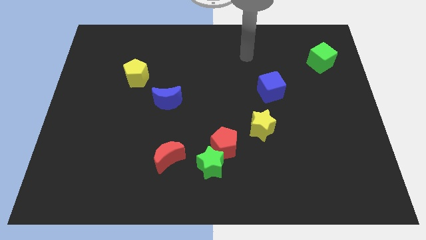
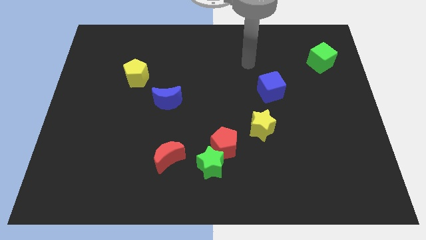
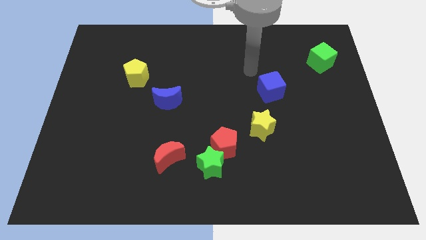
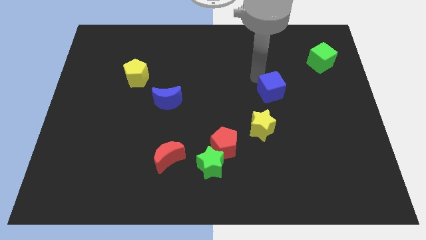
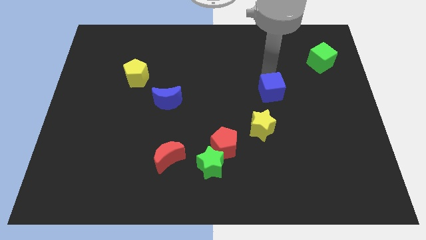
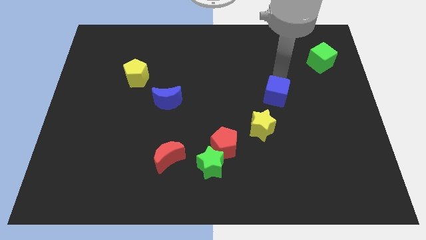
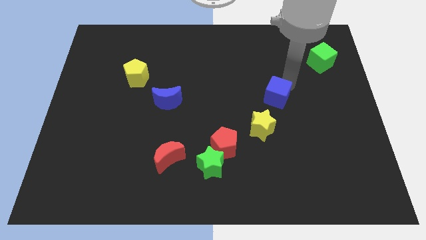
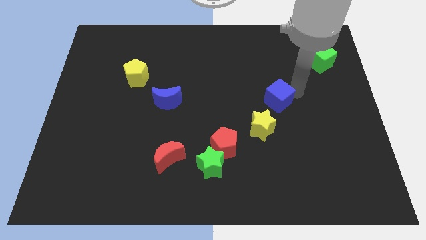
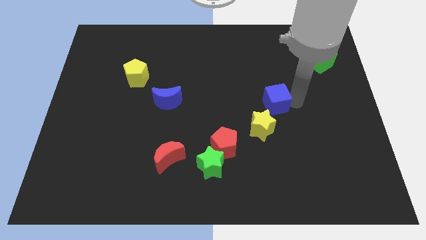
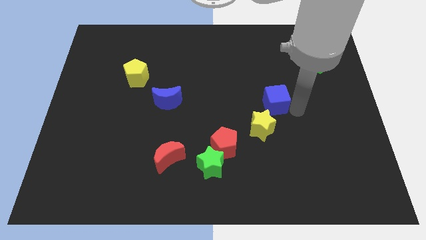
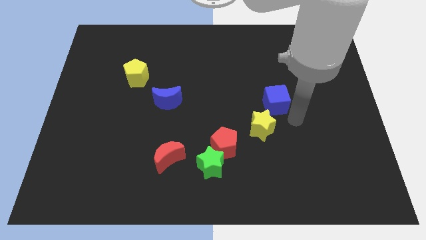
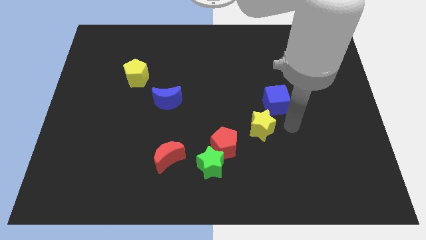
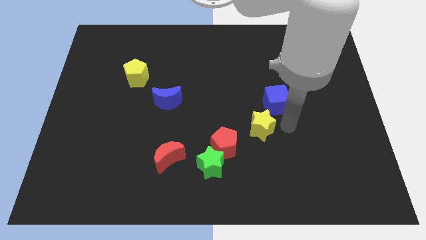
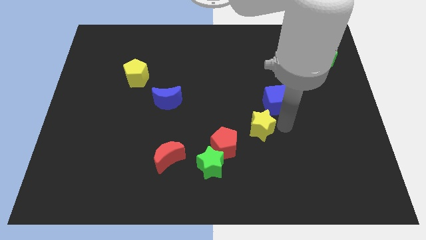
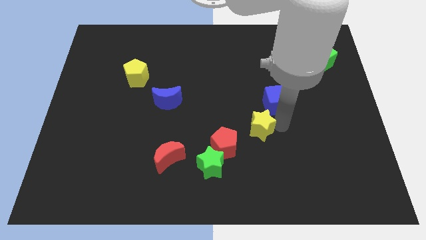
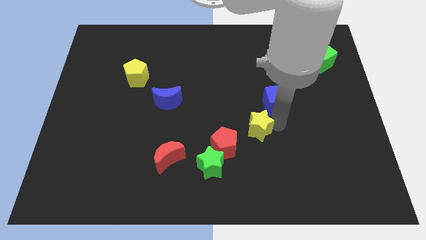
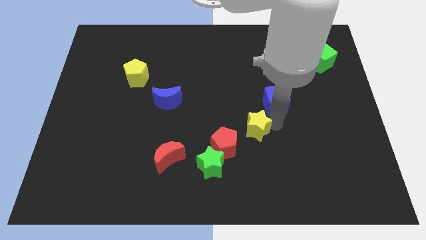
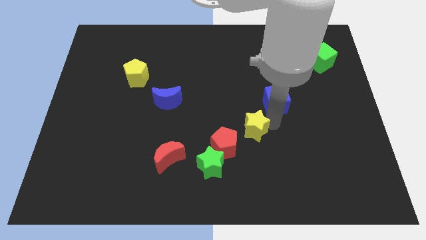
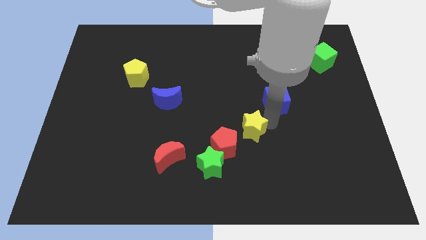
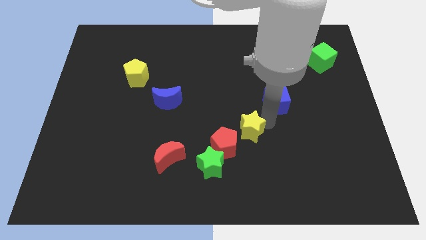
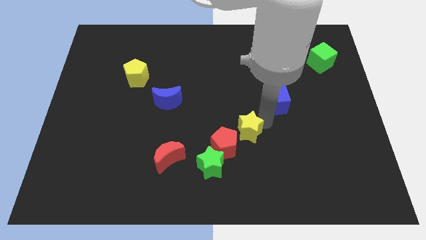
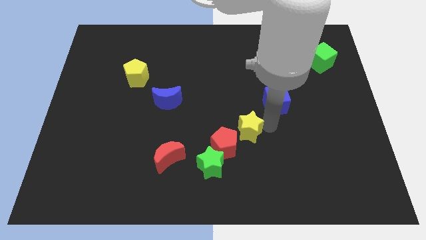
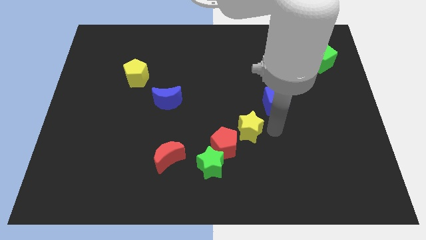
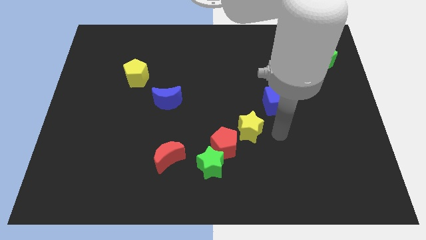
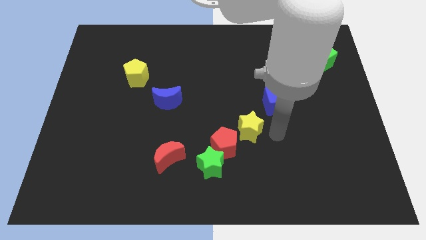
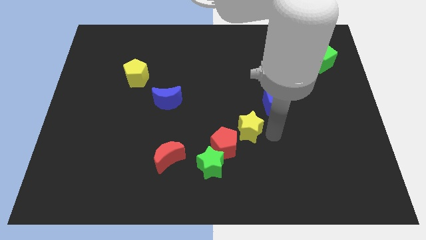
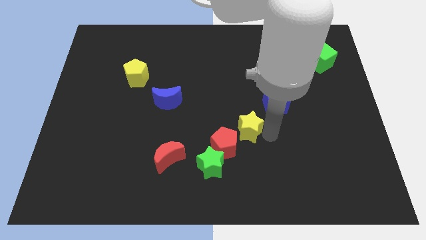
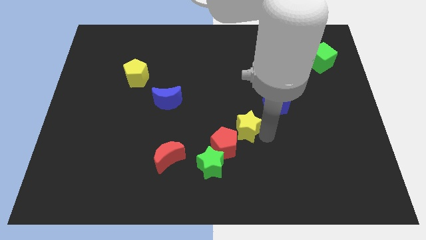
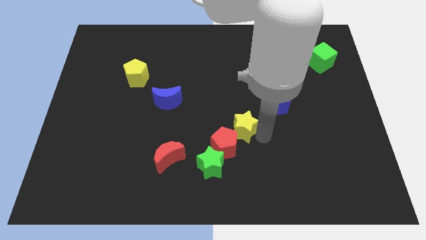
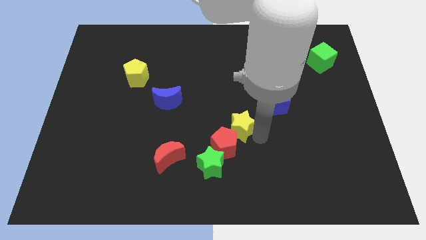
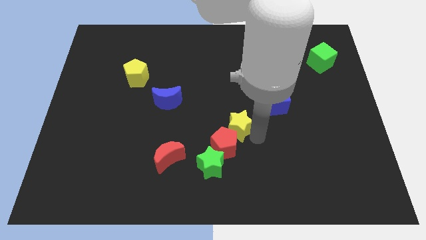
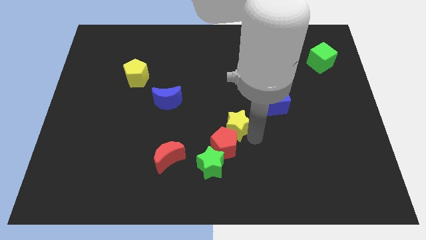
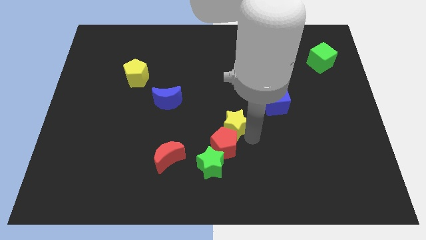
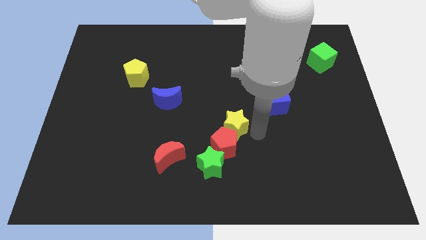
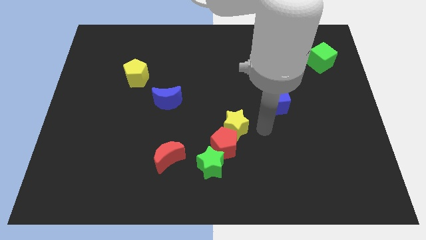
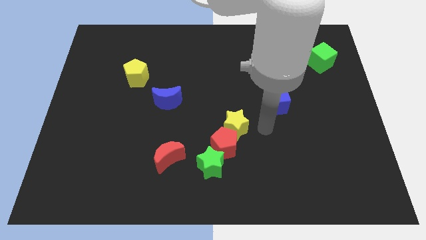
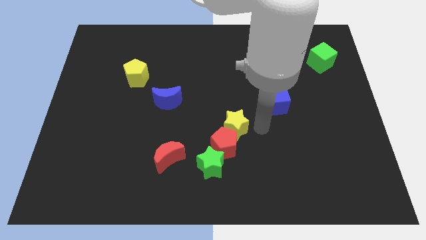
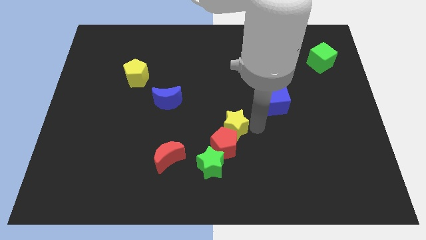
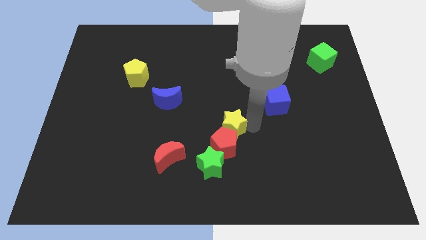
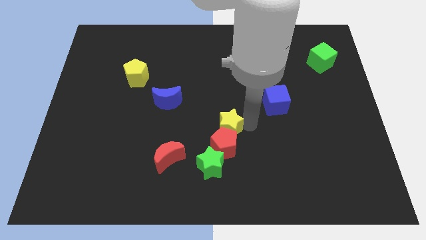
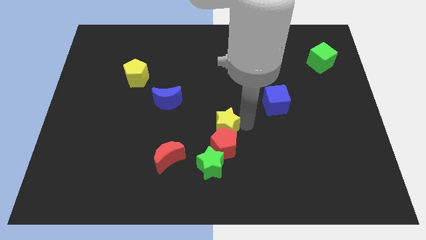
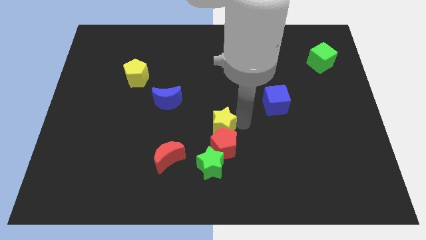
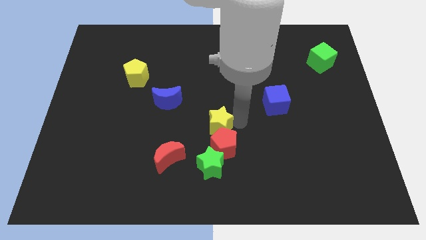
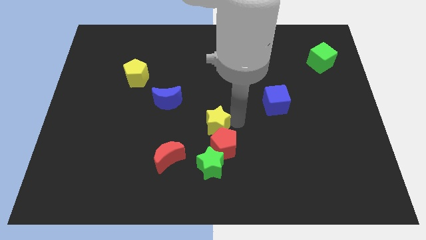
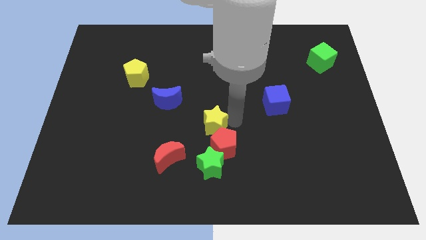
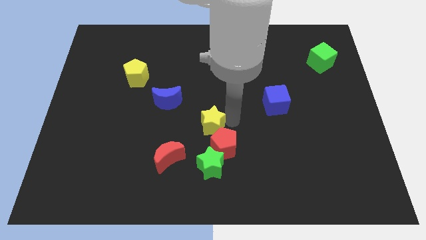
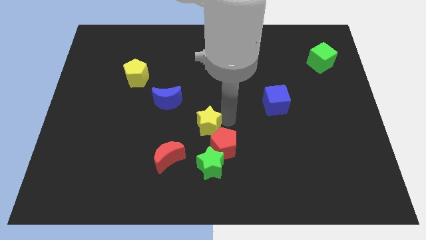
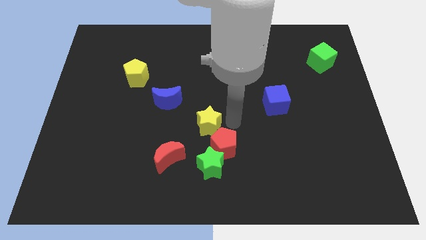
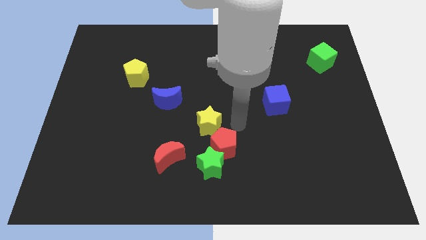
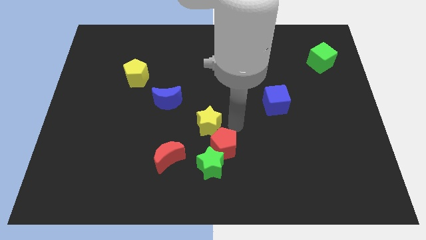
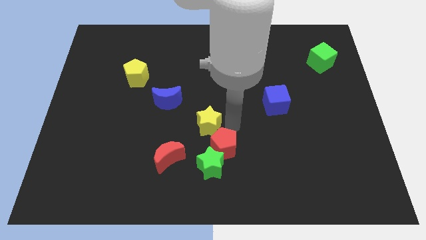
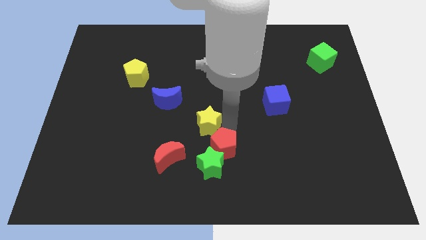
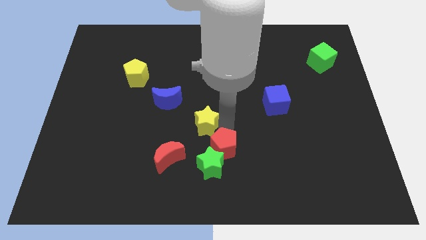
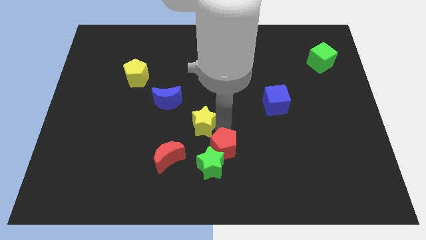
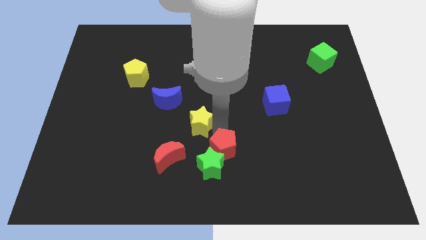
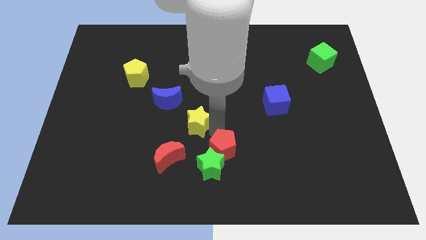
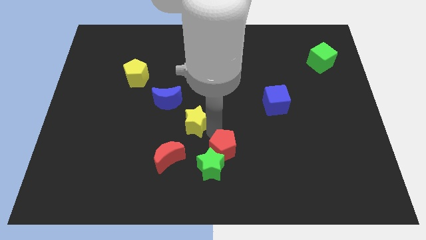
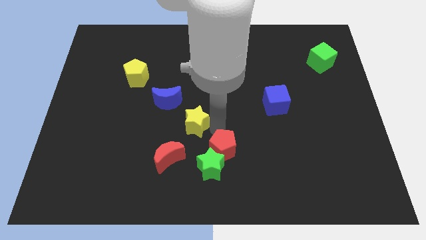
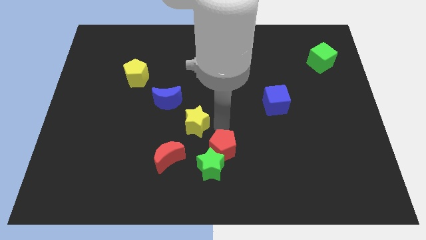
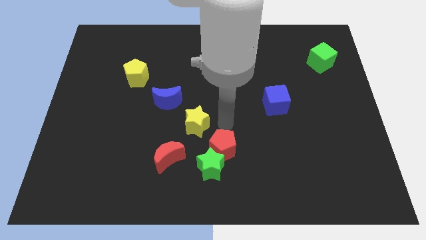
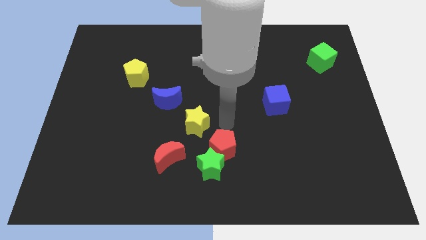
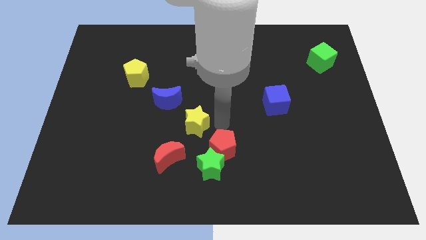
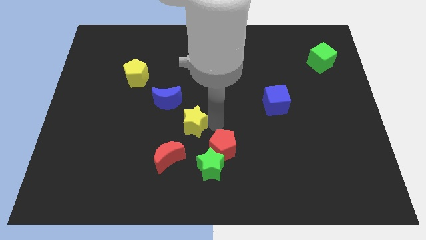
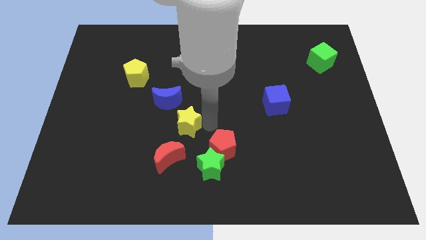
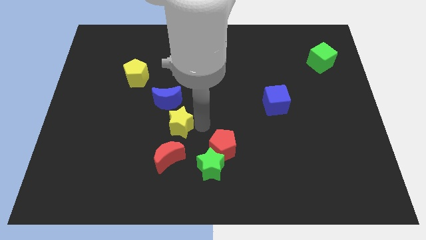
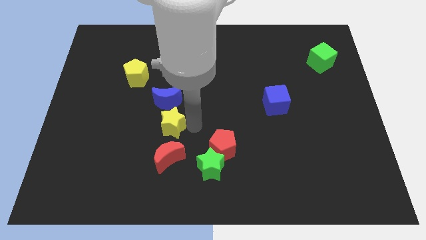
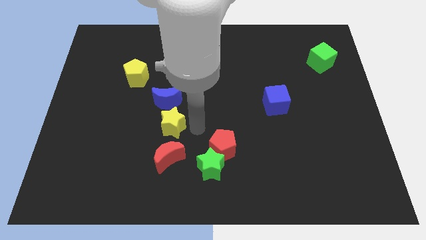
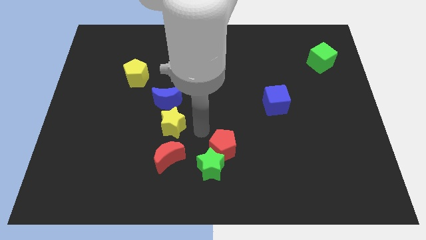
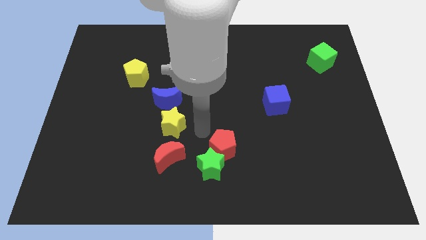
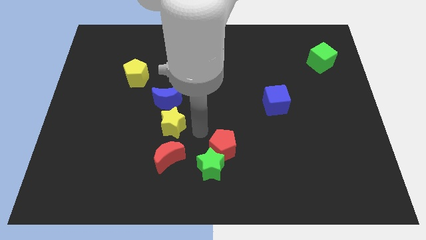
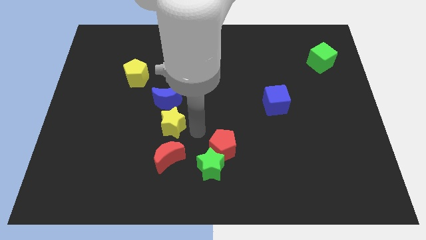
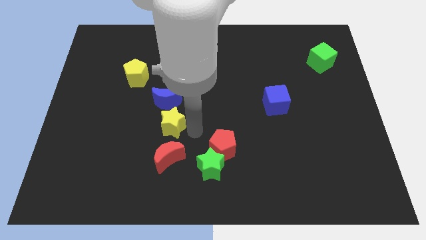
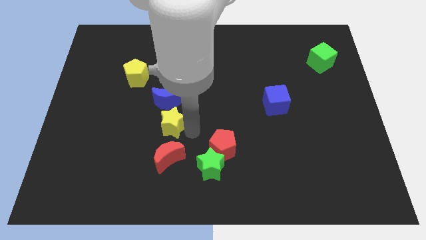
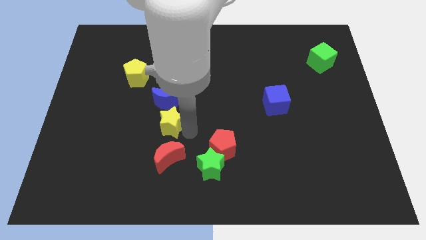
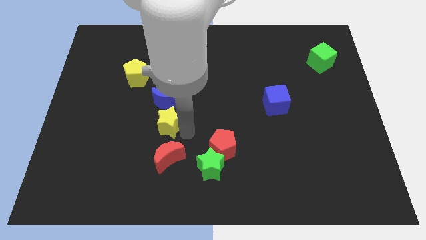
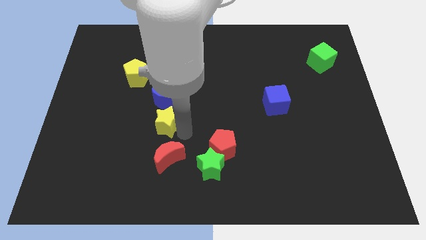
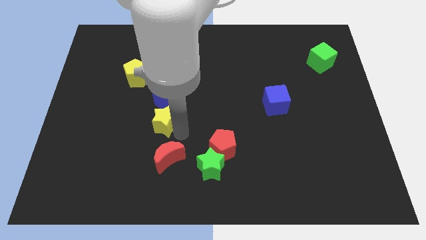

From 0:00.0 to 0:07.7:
put the yellow star to the bottom left side of the blue moon
